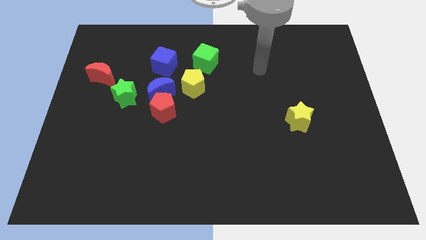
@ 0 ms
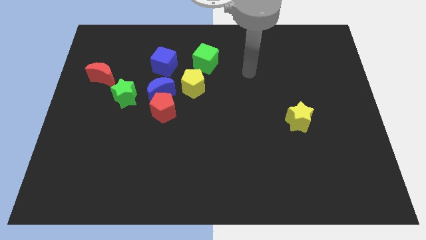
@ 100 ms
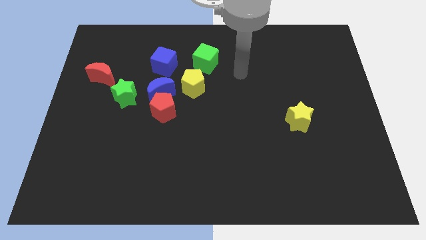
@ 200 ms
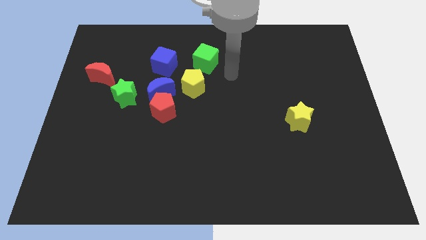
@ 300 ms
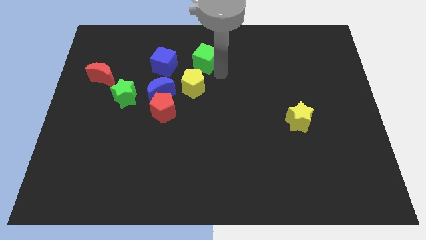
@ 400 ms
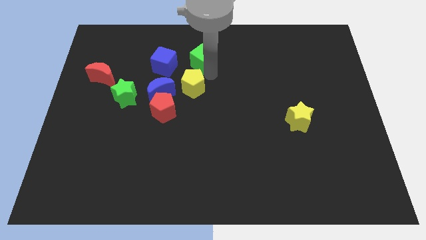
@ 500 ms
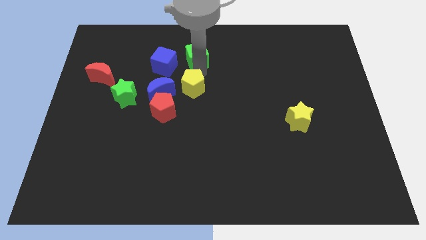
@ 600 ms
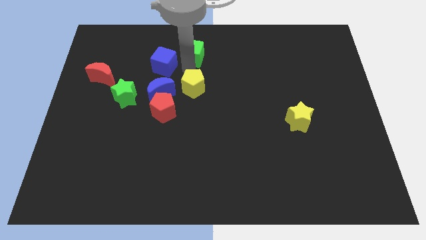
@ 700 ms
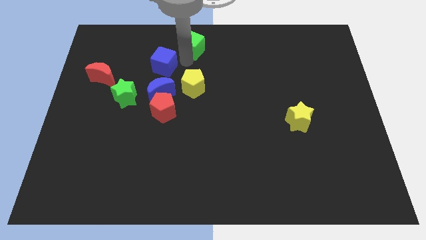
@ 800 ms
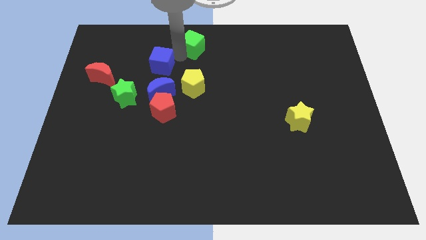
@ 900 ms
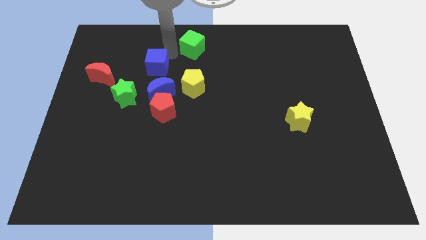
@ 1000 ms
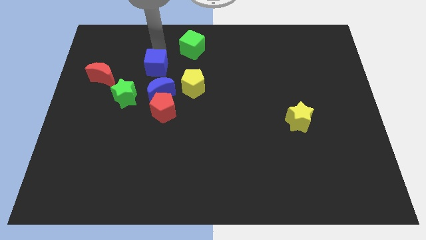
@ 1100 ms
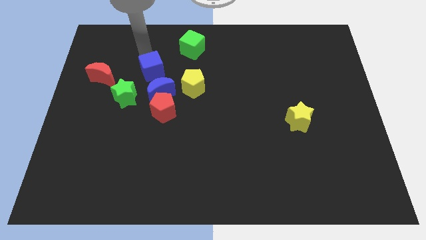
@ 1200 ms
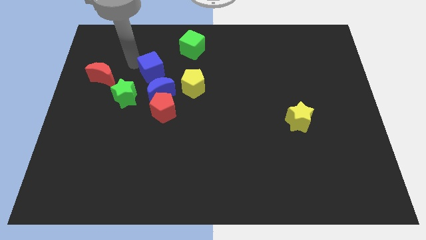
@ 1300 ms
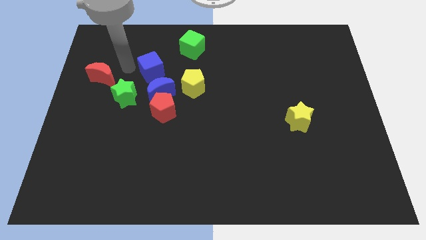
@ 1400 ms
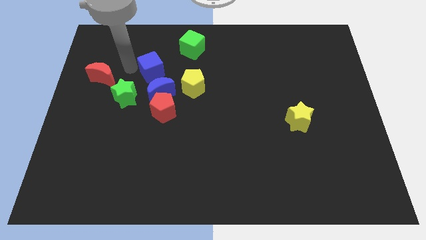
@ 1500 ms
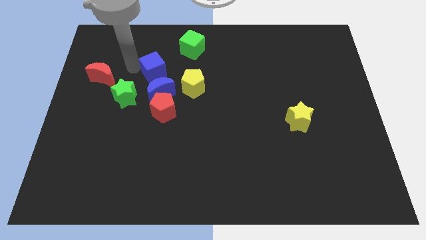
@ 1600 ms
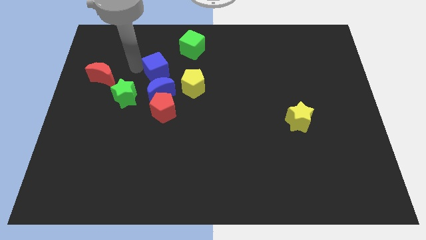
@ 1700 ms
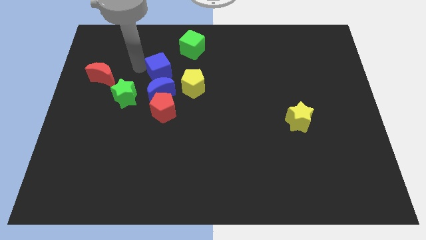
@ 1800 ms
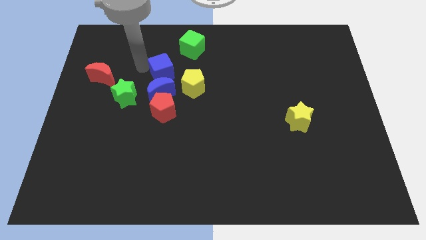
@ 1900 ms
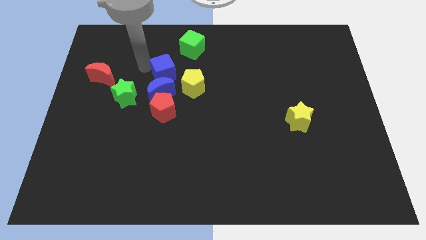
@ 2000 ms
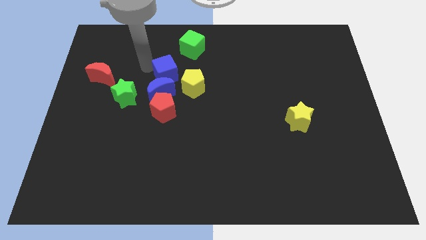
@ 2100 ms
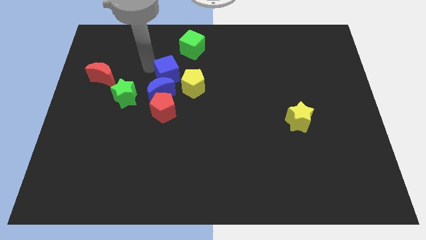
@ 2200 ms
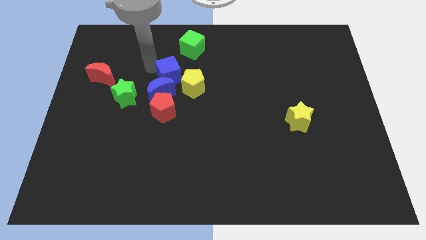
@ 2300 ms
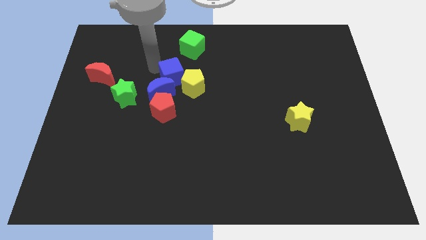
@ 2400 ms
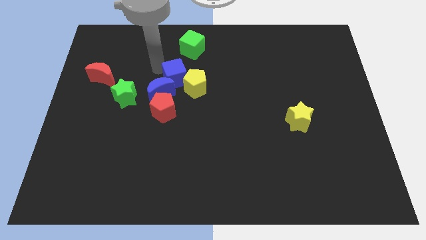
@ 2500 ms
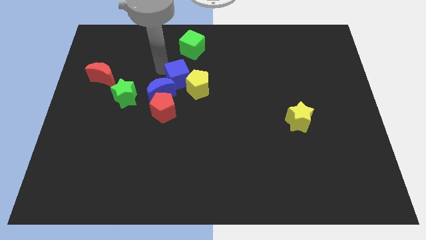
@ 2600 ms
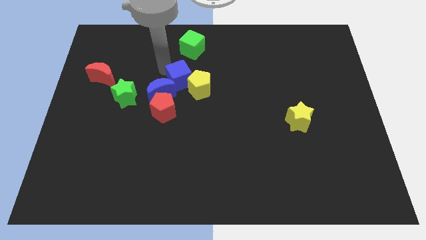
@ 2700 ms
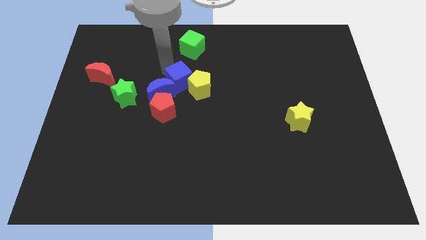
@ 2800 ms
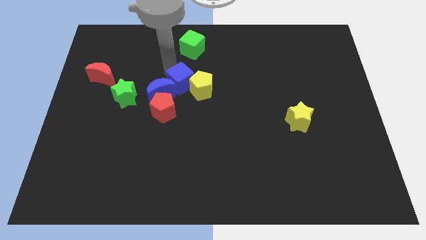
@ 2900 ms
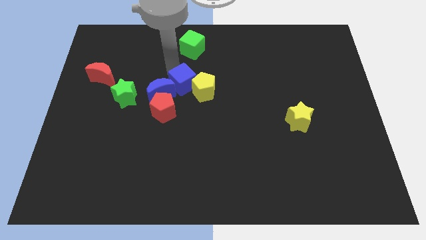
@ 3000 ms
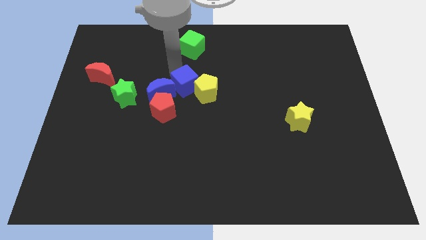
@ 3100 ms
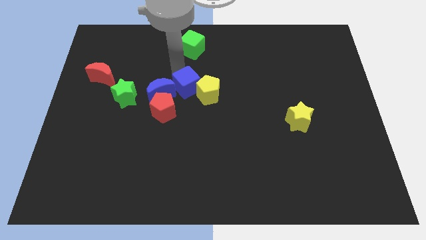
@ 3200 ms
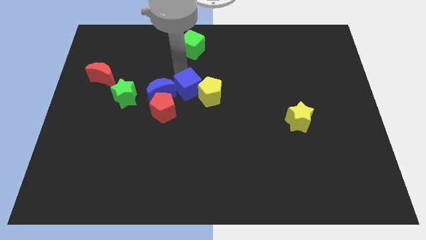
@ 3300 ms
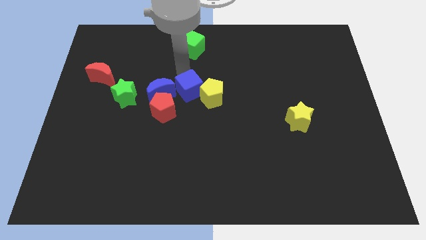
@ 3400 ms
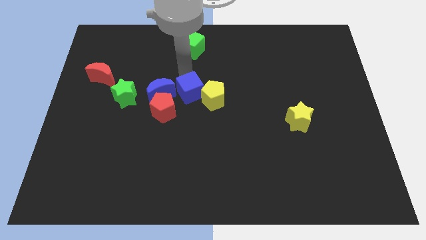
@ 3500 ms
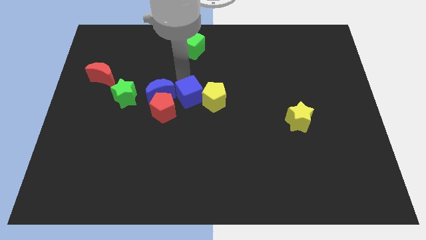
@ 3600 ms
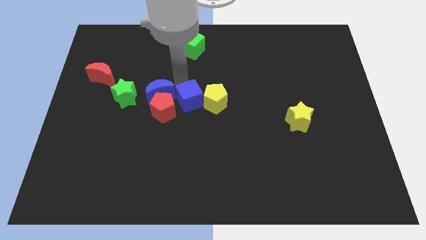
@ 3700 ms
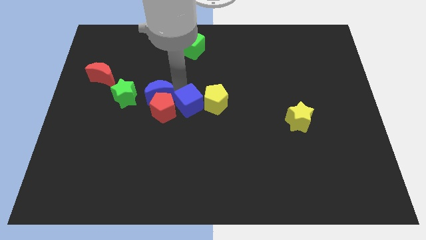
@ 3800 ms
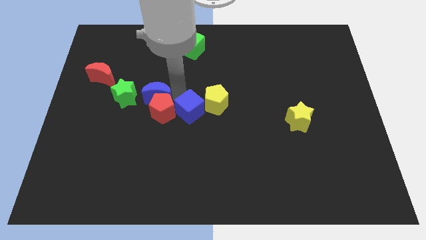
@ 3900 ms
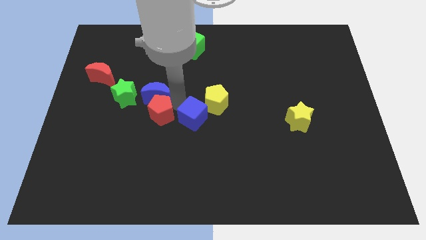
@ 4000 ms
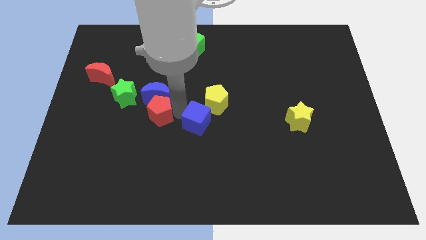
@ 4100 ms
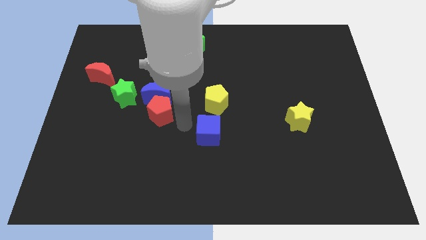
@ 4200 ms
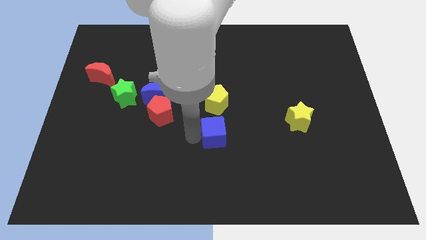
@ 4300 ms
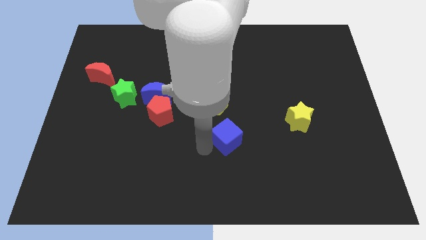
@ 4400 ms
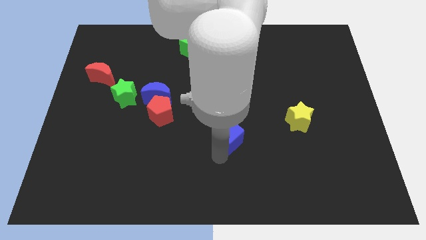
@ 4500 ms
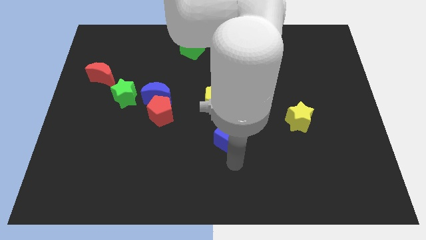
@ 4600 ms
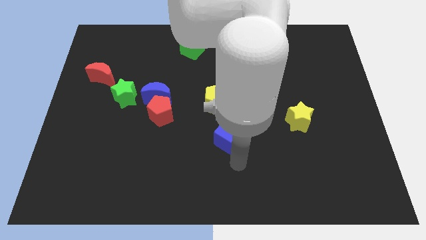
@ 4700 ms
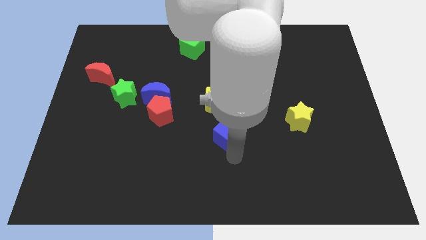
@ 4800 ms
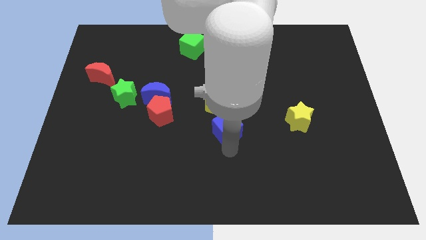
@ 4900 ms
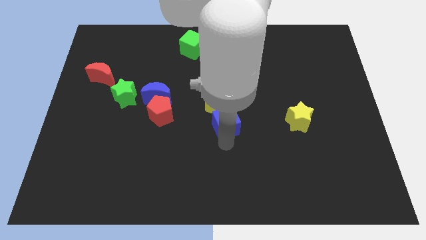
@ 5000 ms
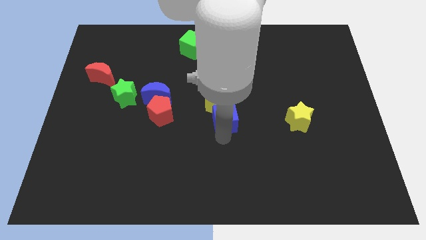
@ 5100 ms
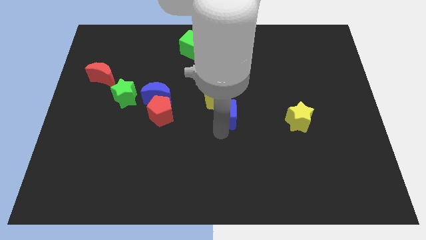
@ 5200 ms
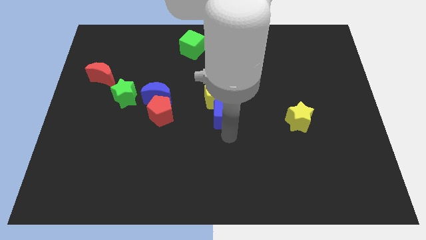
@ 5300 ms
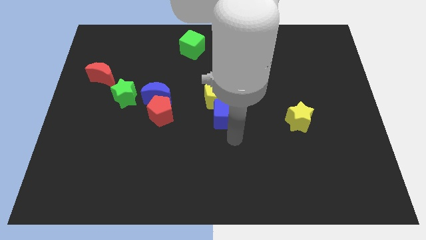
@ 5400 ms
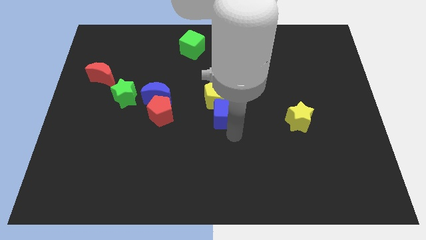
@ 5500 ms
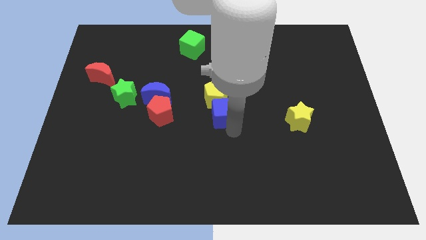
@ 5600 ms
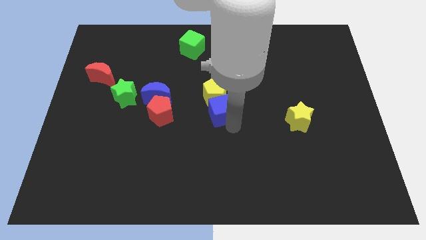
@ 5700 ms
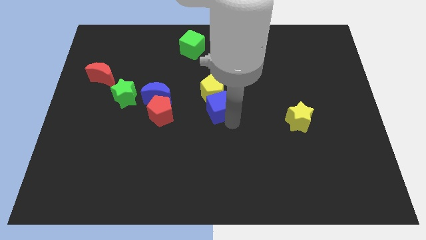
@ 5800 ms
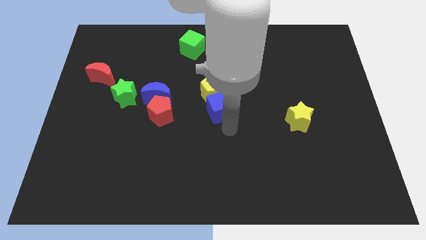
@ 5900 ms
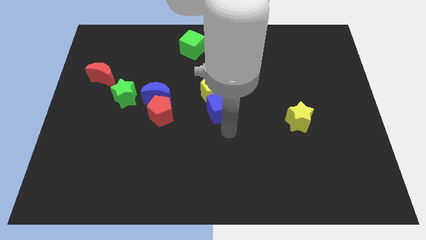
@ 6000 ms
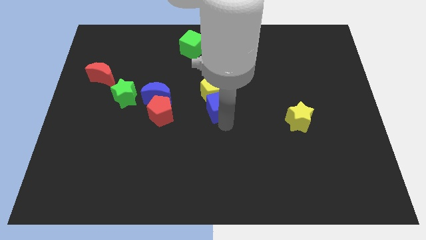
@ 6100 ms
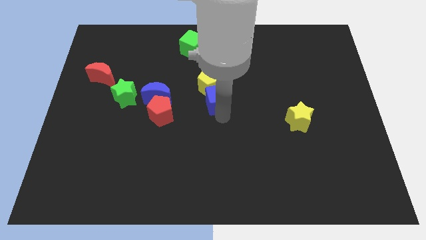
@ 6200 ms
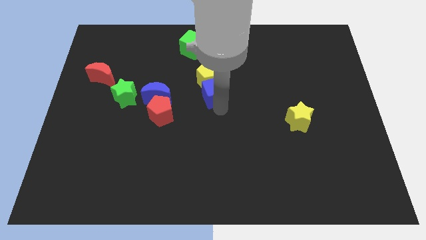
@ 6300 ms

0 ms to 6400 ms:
slide the blue cube a bit to the right

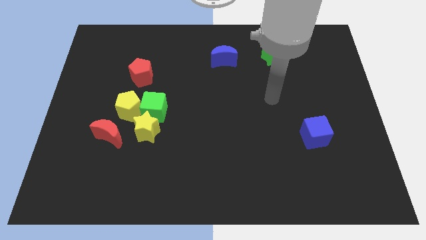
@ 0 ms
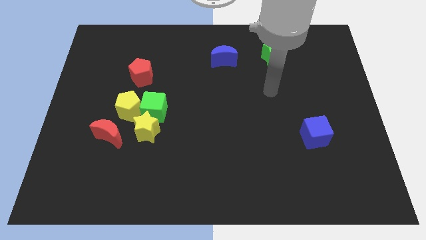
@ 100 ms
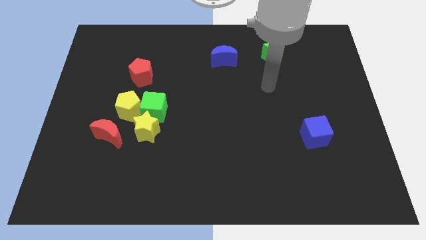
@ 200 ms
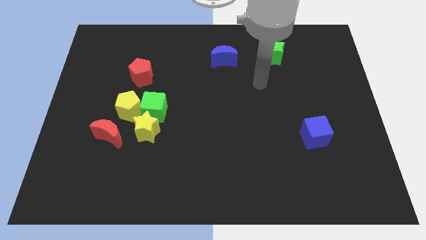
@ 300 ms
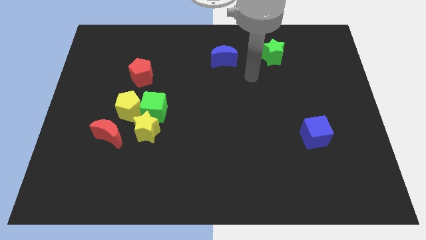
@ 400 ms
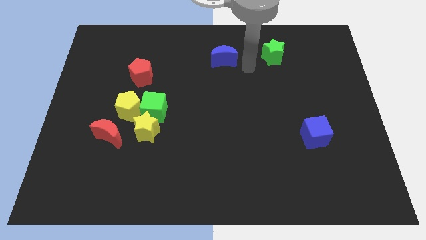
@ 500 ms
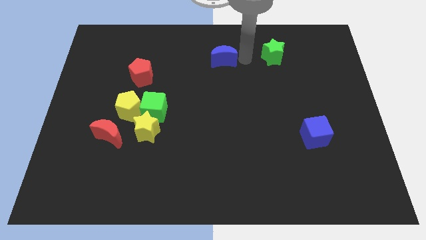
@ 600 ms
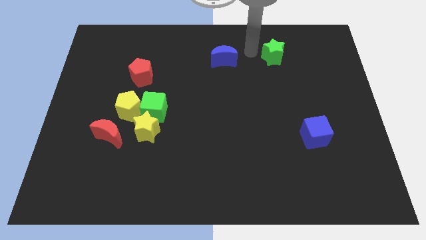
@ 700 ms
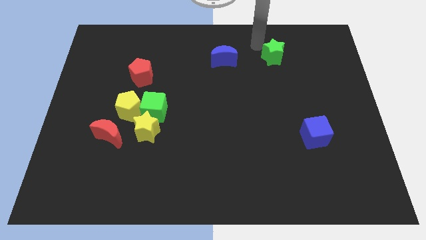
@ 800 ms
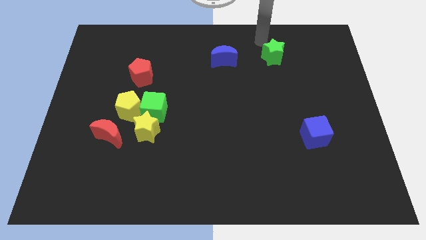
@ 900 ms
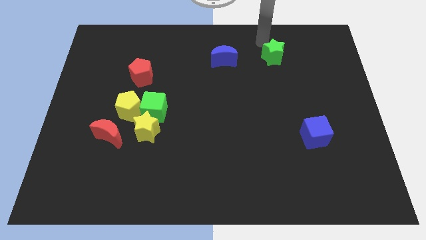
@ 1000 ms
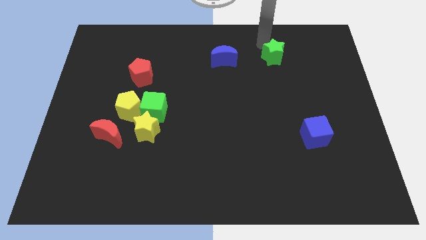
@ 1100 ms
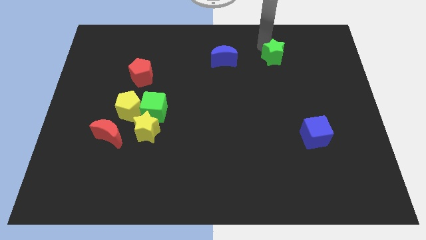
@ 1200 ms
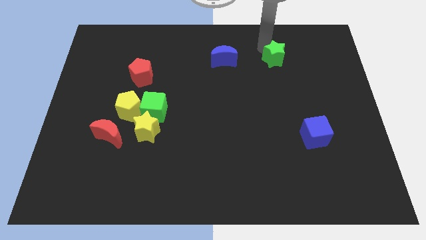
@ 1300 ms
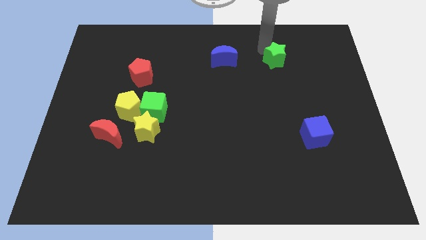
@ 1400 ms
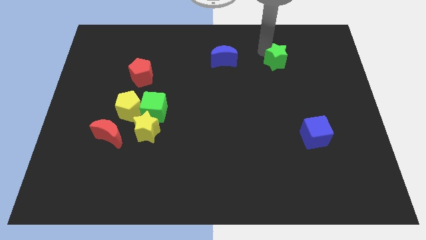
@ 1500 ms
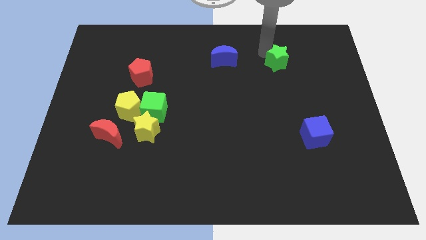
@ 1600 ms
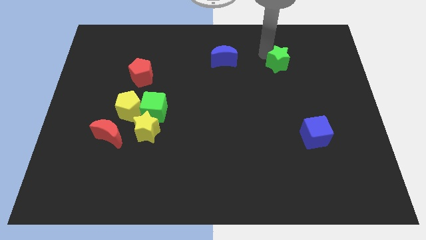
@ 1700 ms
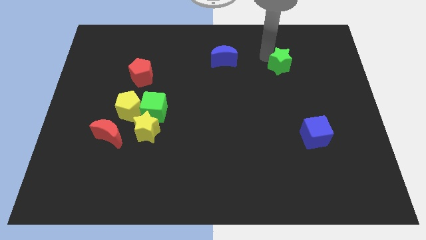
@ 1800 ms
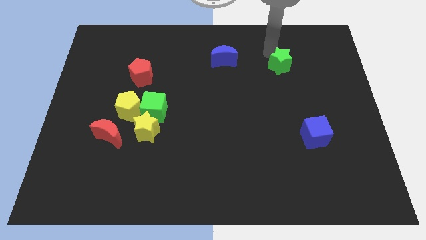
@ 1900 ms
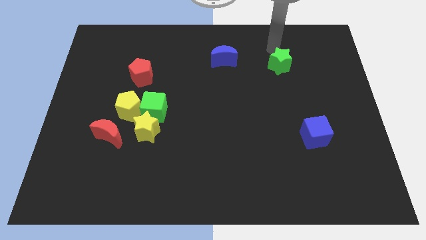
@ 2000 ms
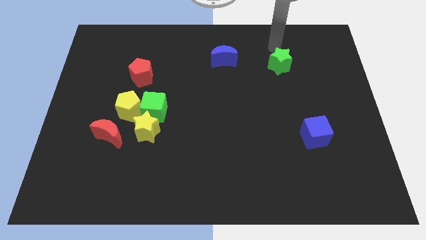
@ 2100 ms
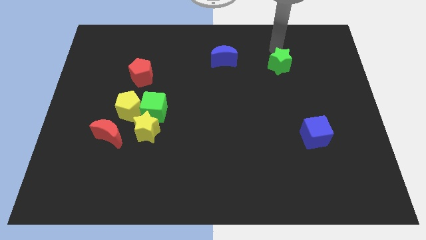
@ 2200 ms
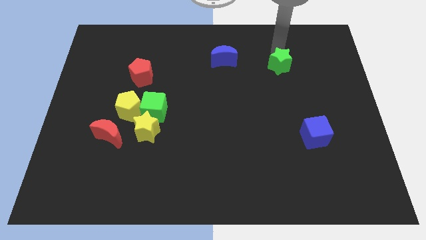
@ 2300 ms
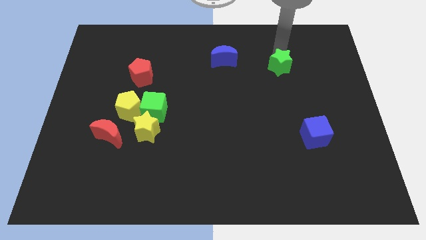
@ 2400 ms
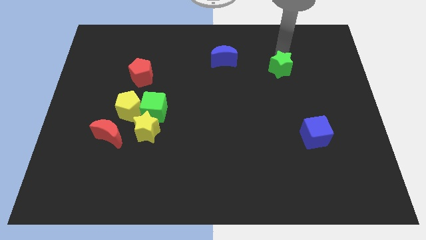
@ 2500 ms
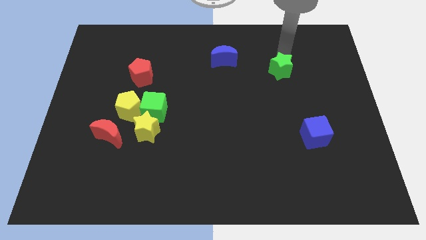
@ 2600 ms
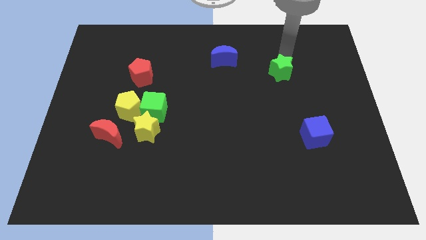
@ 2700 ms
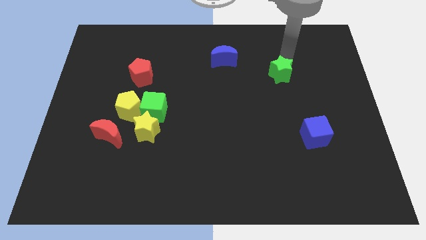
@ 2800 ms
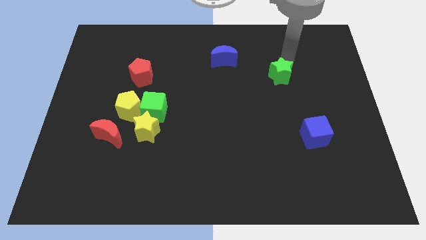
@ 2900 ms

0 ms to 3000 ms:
slide the green star somewhat downwards
